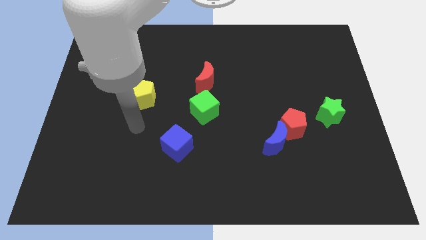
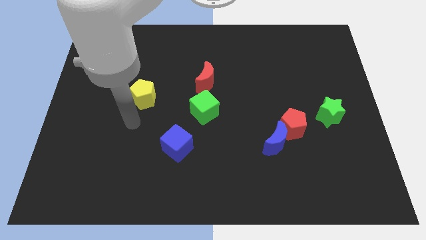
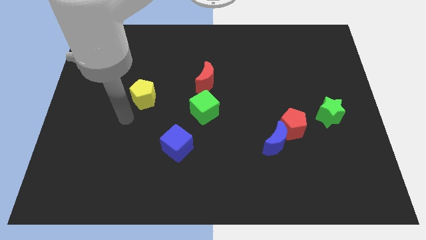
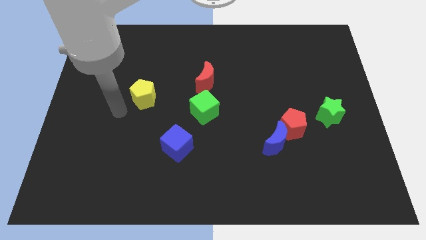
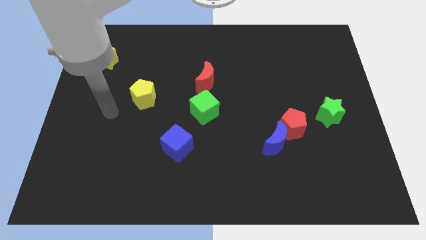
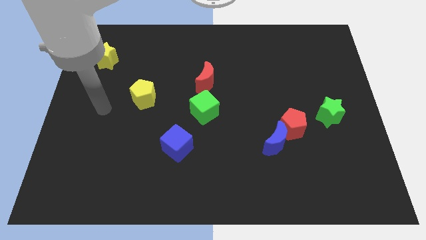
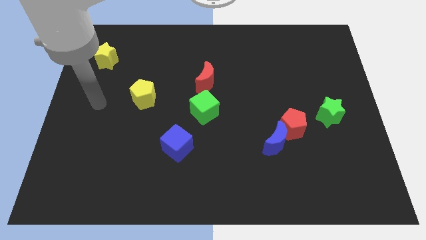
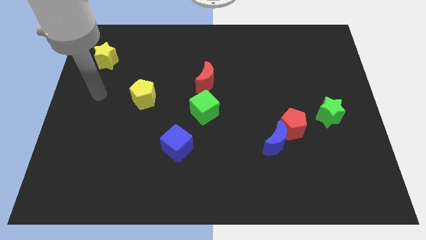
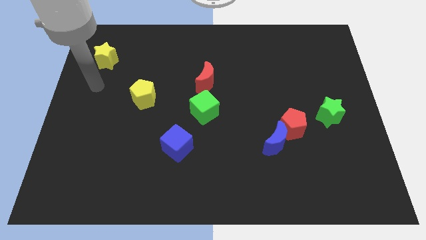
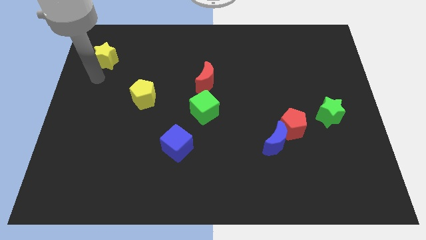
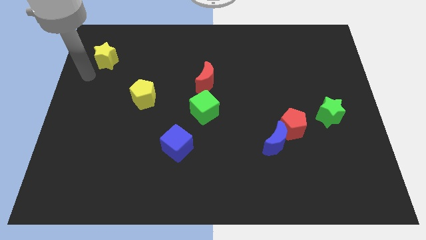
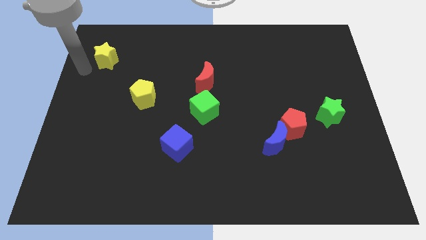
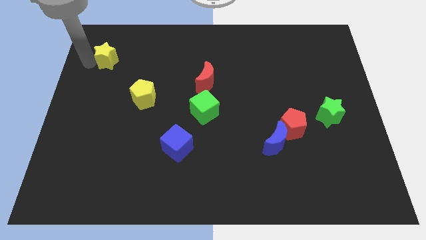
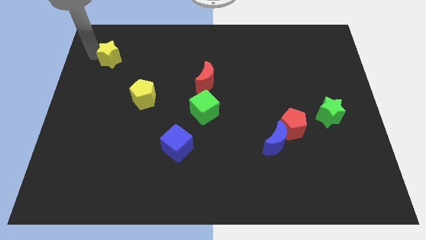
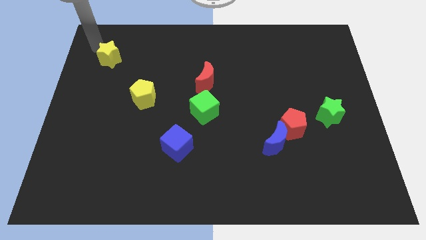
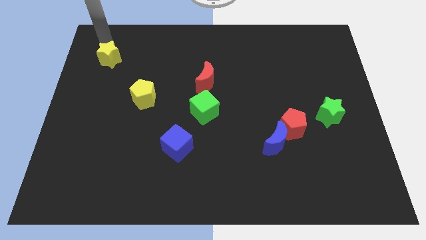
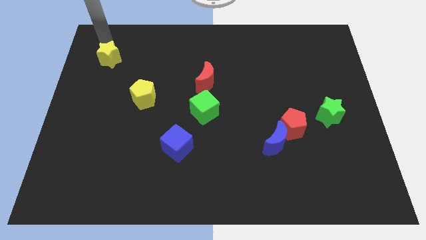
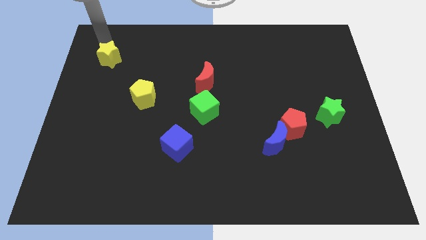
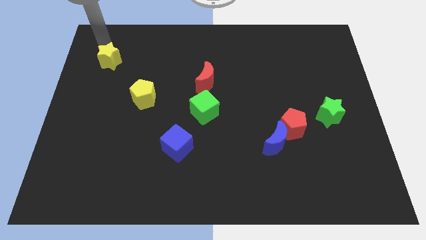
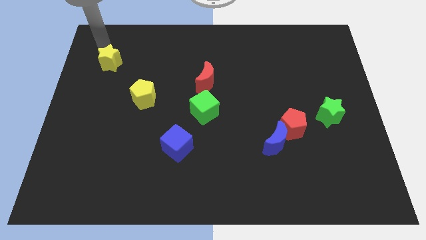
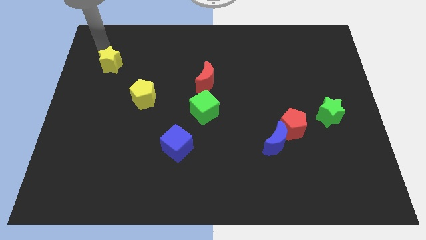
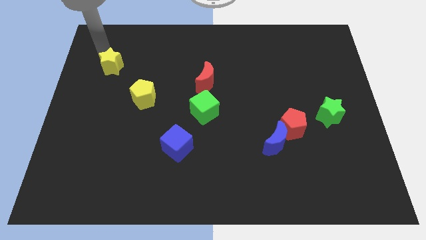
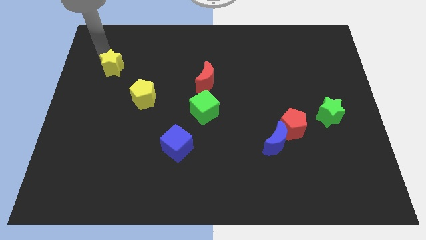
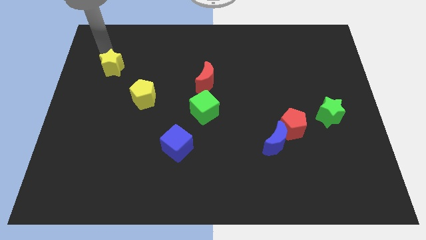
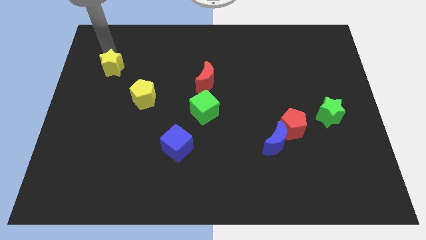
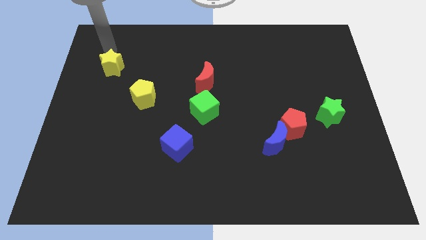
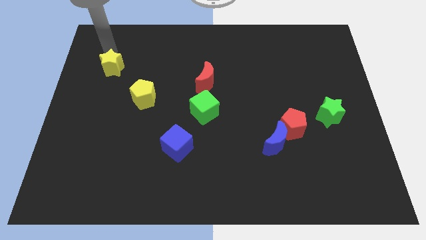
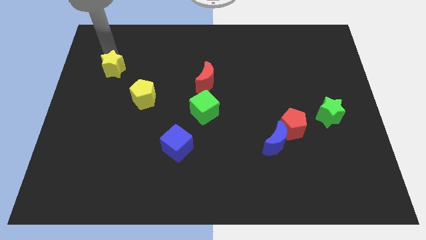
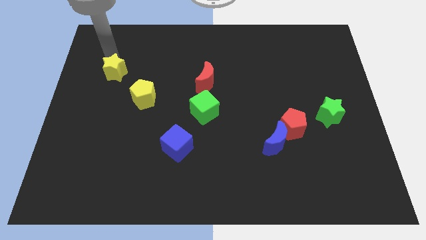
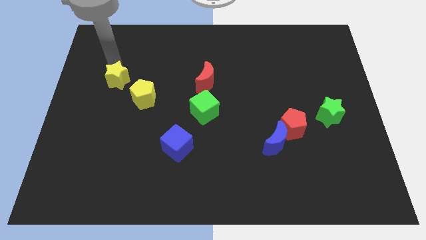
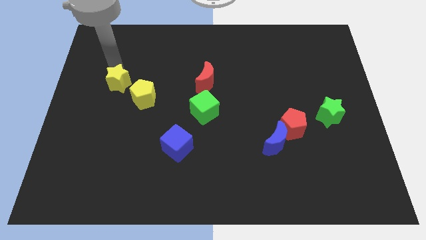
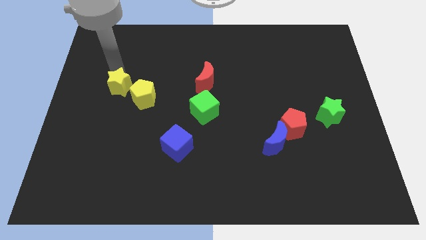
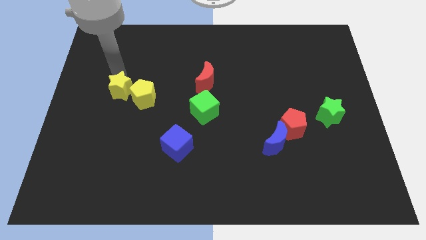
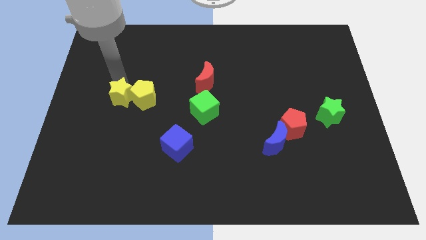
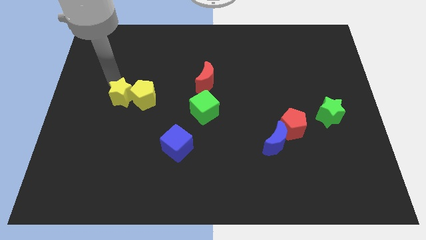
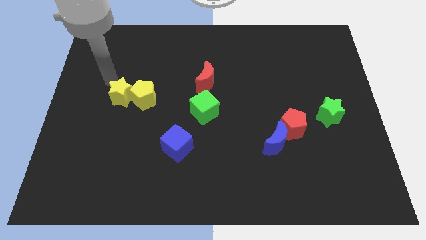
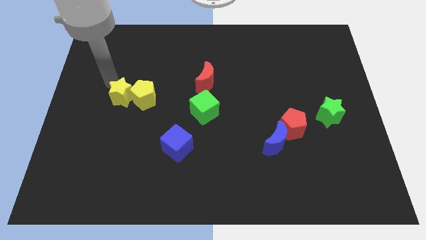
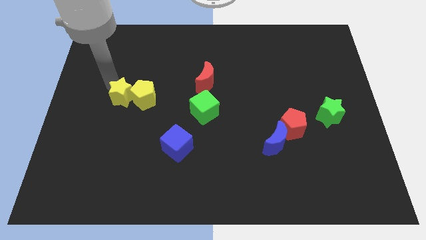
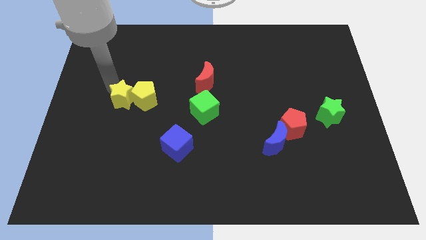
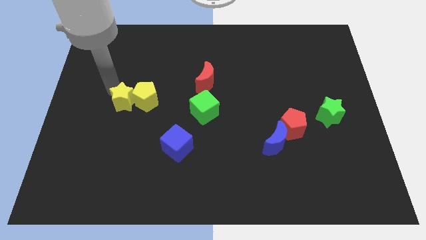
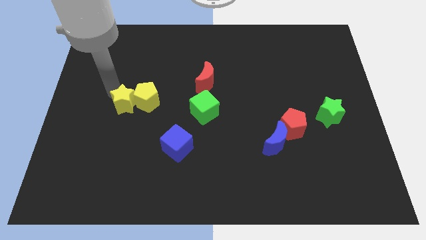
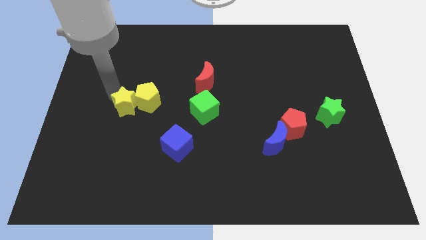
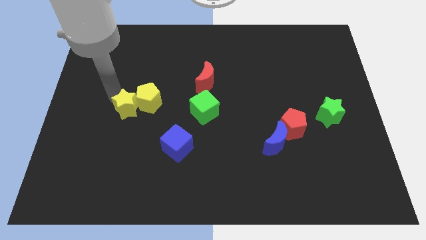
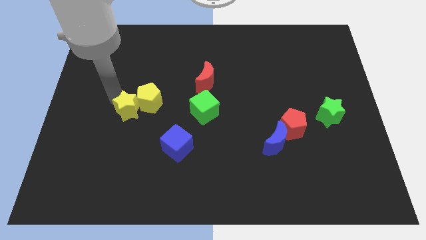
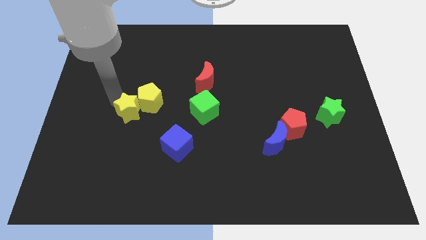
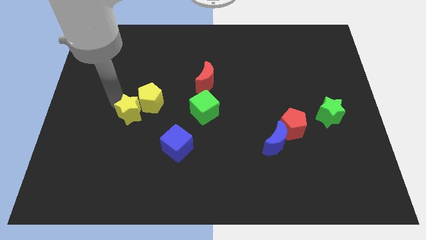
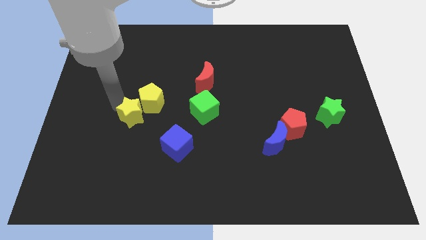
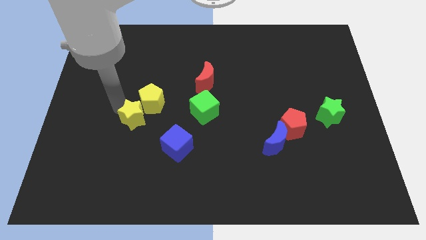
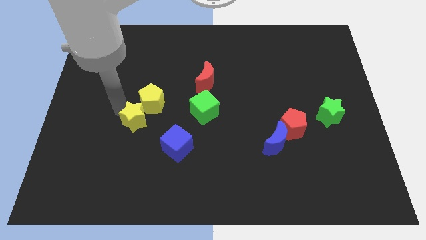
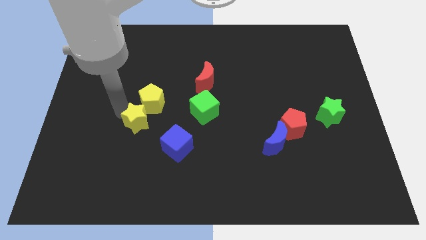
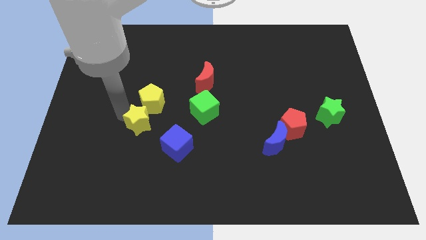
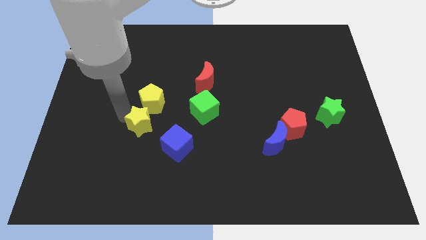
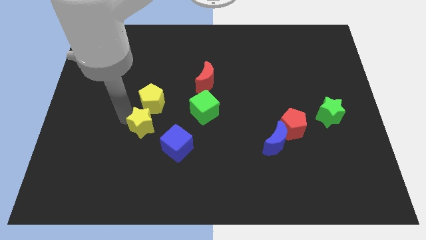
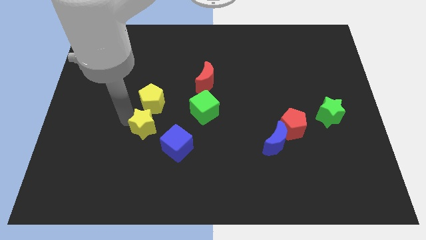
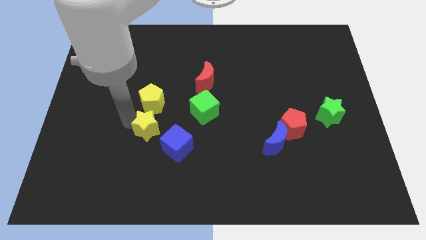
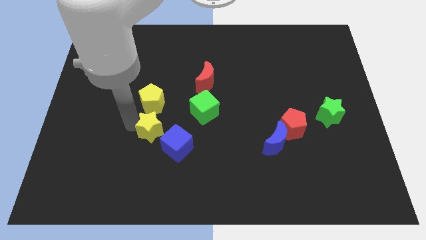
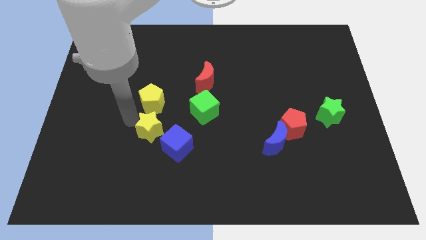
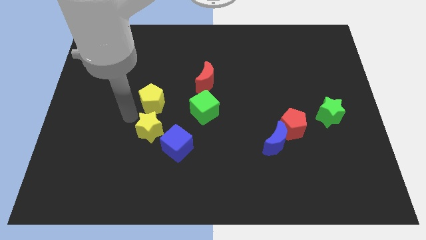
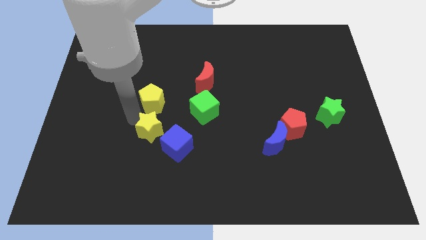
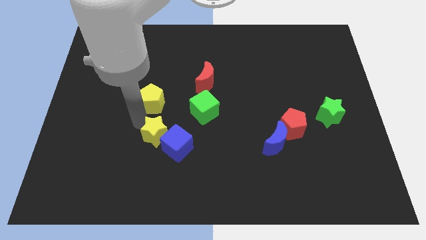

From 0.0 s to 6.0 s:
put the yellow star close to the blue cube

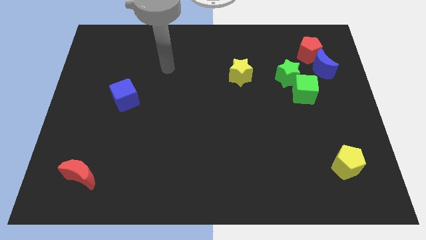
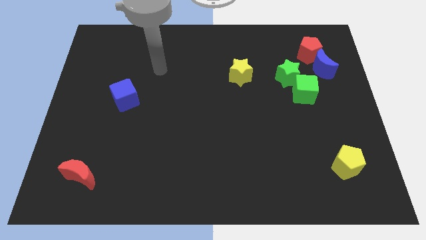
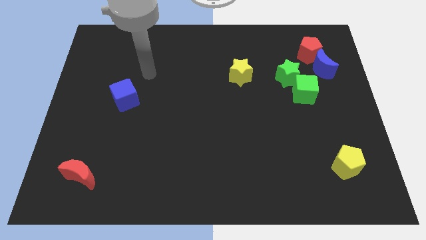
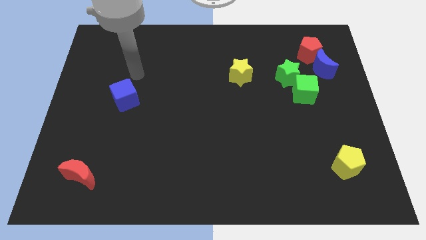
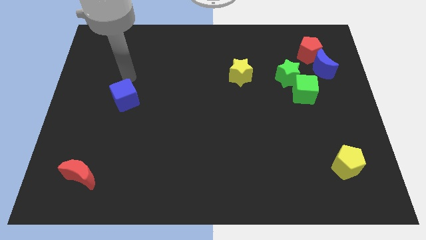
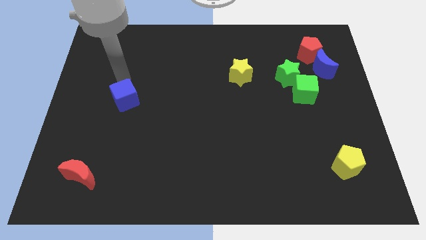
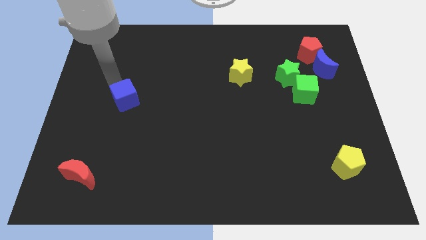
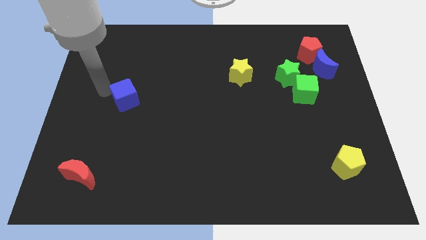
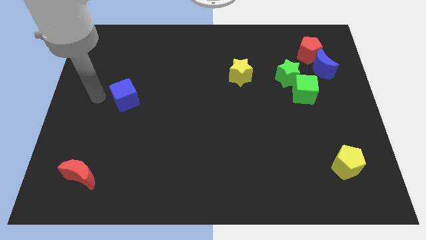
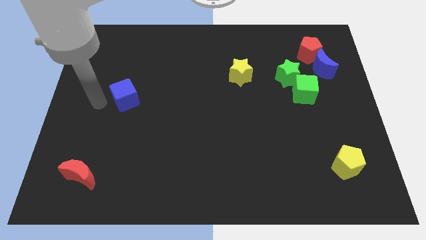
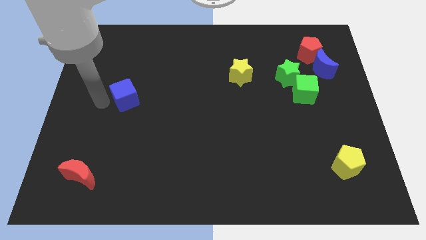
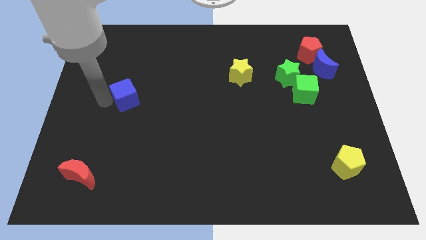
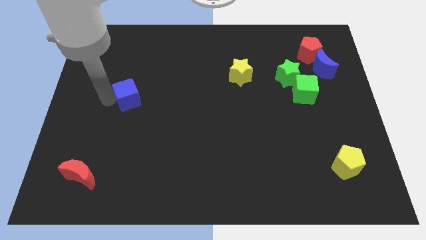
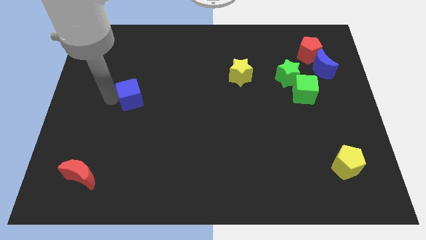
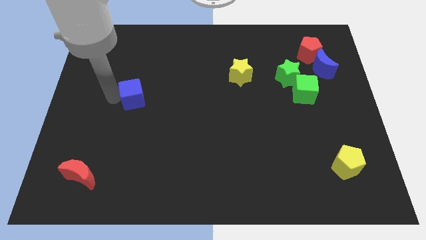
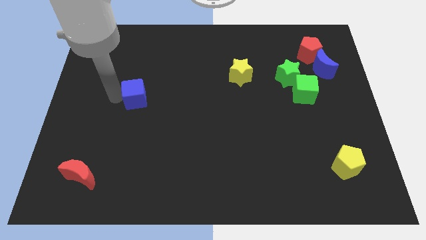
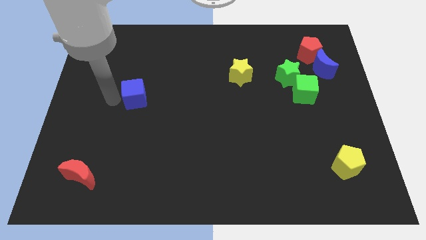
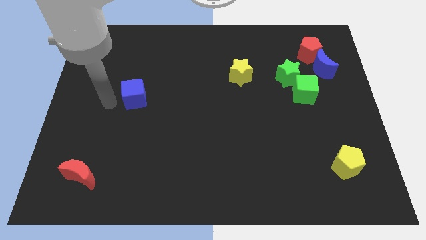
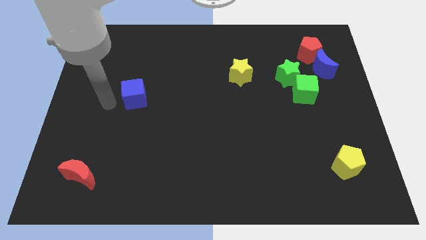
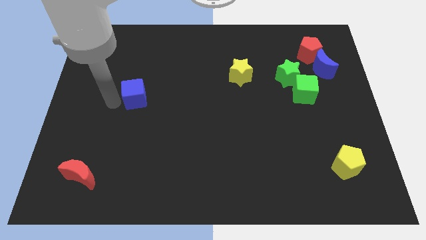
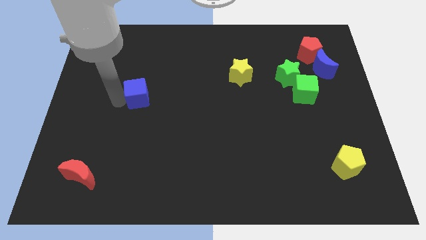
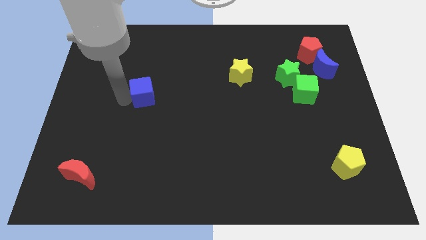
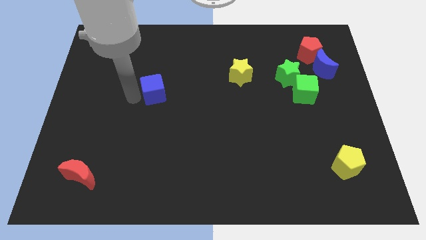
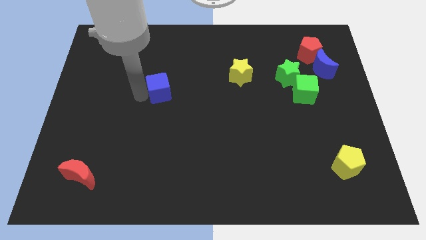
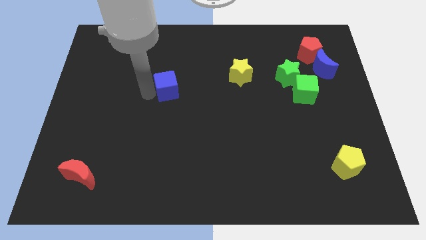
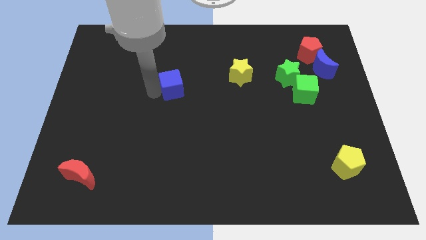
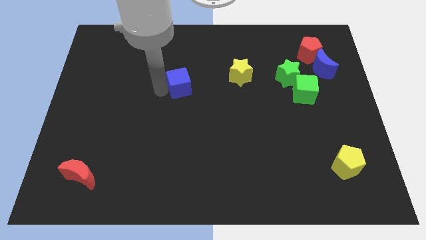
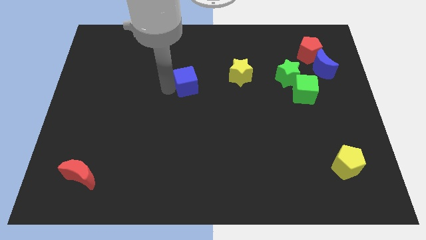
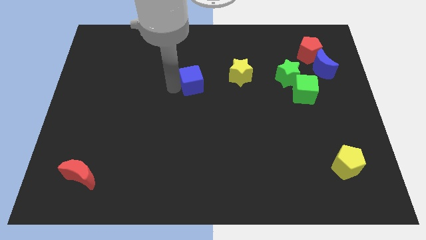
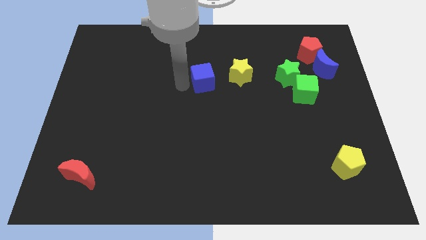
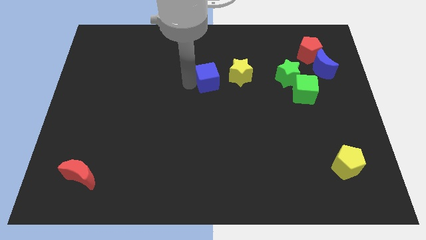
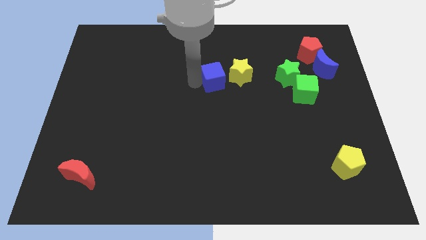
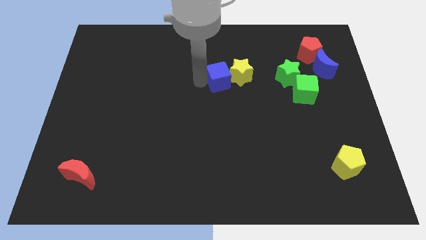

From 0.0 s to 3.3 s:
slide the blue cube next to the yellow star
